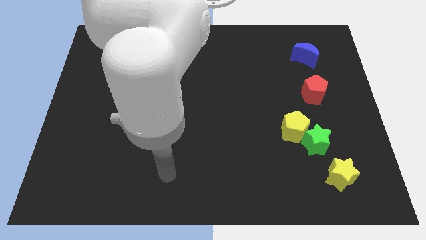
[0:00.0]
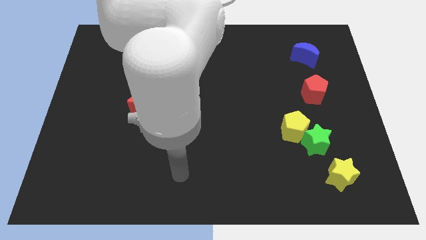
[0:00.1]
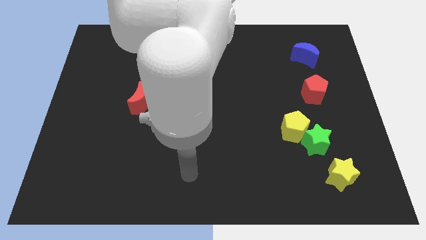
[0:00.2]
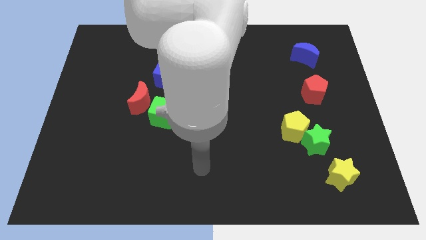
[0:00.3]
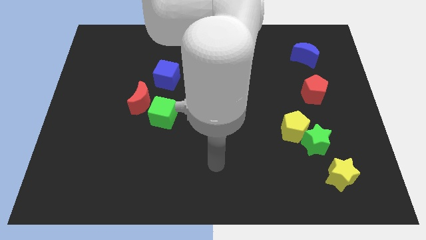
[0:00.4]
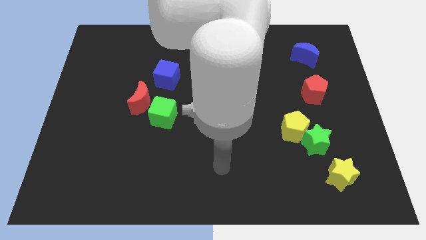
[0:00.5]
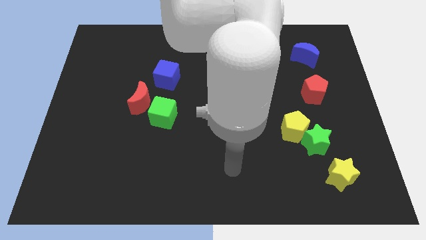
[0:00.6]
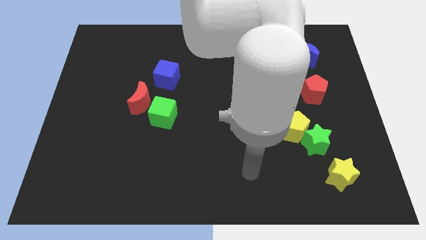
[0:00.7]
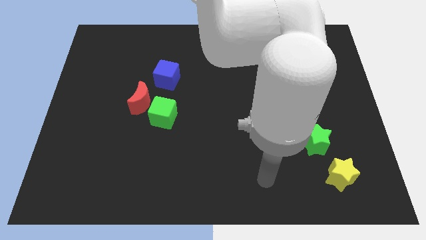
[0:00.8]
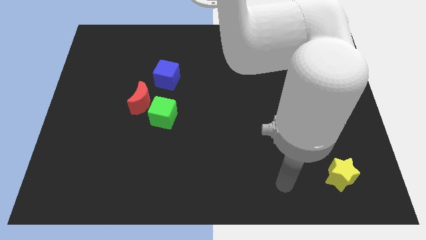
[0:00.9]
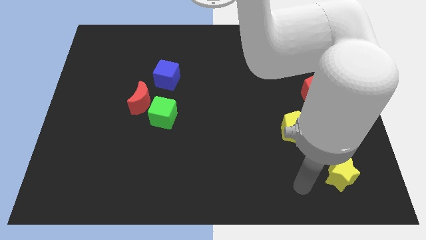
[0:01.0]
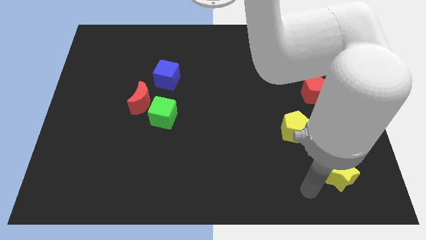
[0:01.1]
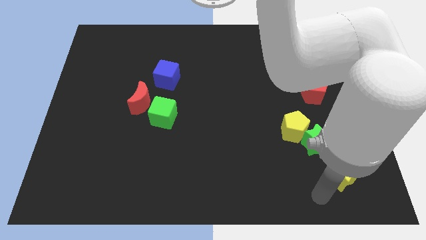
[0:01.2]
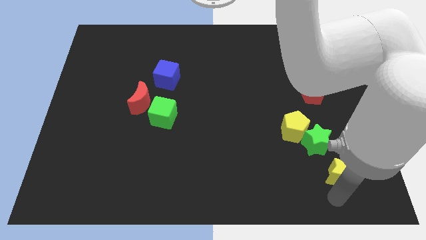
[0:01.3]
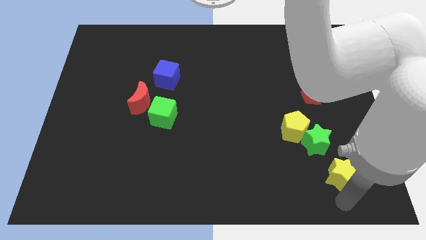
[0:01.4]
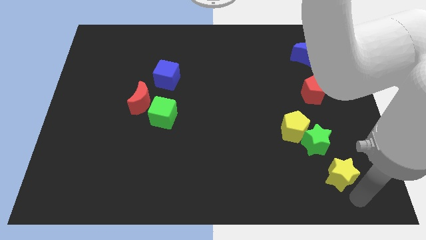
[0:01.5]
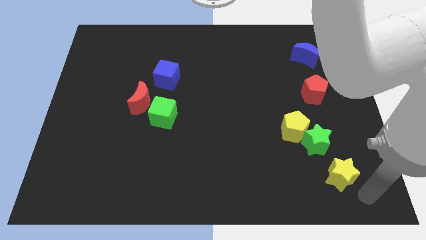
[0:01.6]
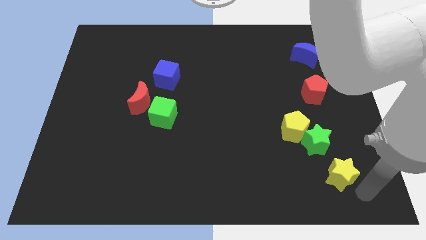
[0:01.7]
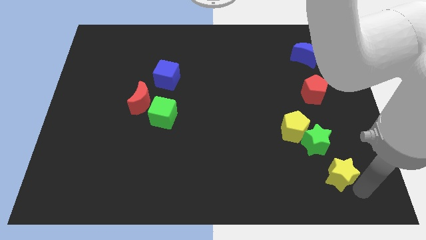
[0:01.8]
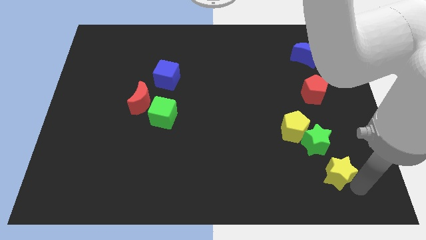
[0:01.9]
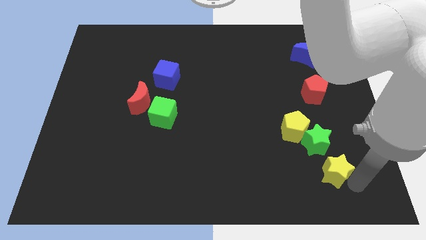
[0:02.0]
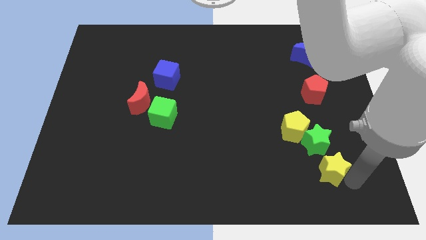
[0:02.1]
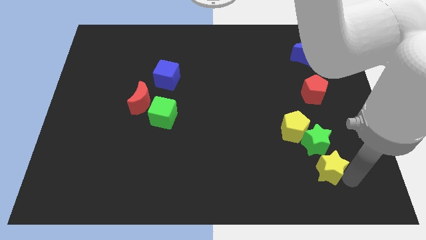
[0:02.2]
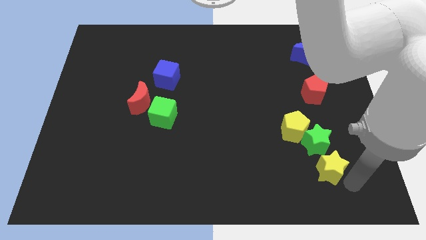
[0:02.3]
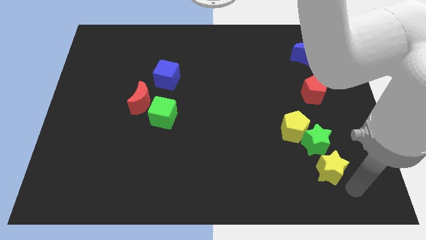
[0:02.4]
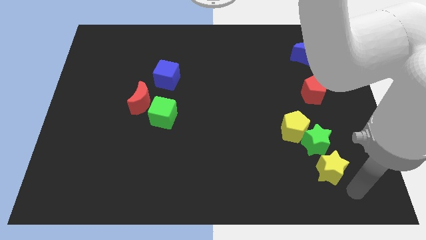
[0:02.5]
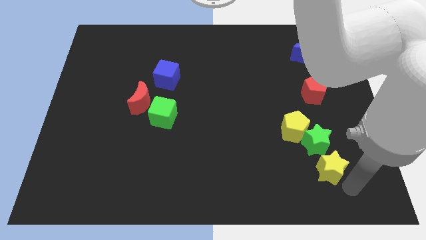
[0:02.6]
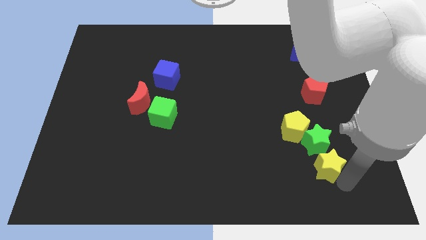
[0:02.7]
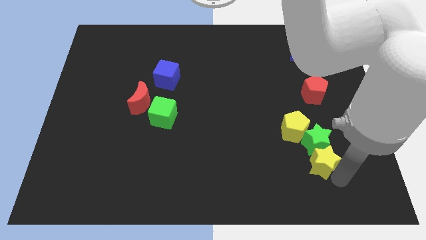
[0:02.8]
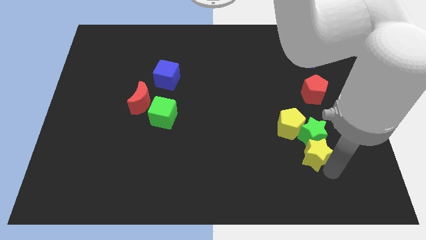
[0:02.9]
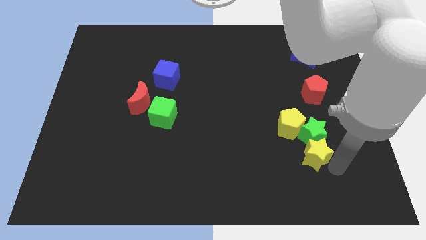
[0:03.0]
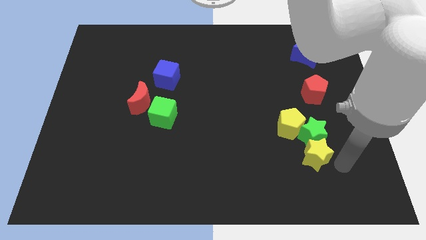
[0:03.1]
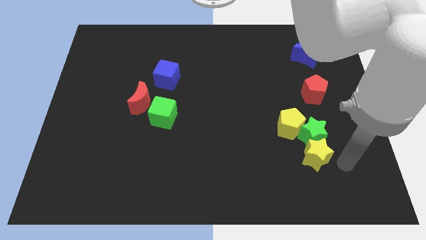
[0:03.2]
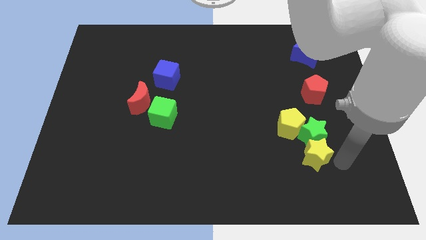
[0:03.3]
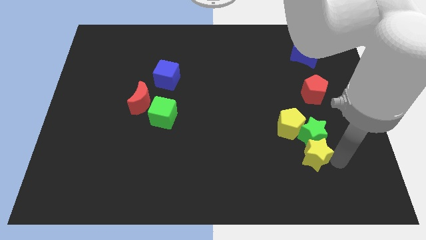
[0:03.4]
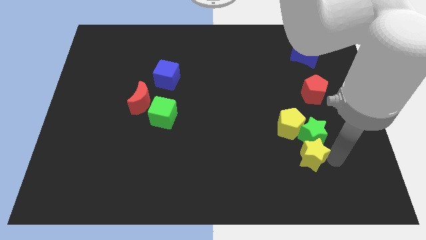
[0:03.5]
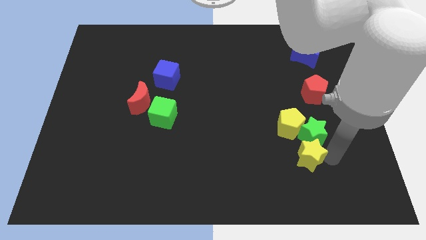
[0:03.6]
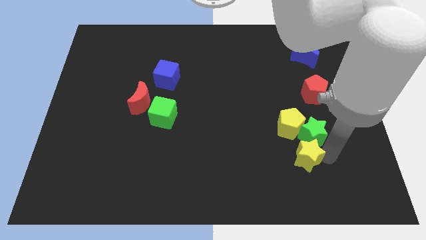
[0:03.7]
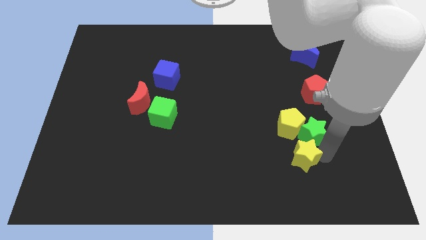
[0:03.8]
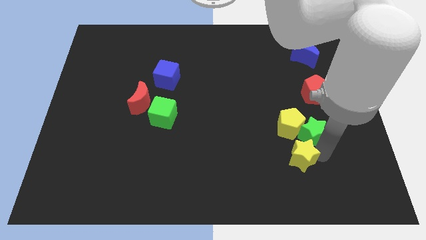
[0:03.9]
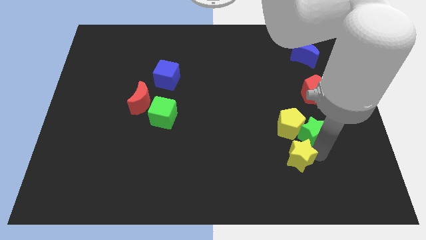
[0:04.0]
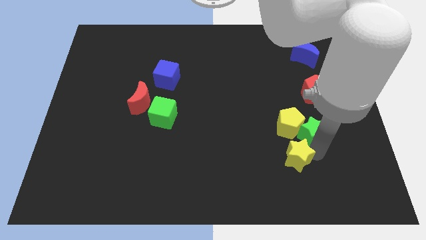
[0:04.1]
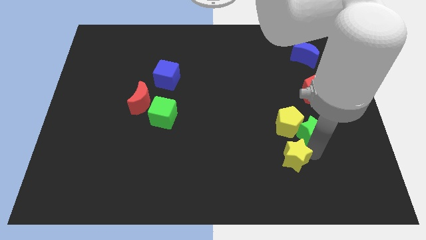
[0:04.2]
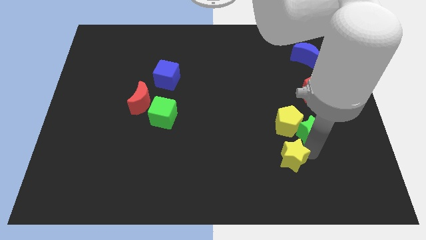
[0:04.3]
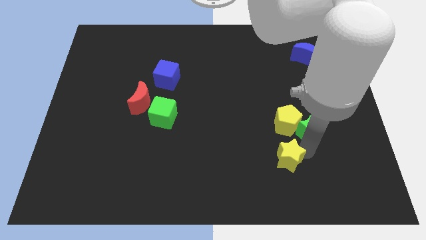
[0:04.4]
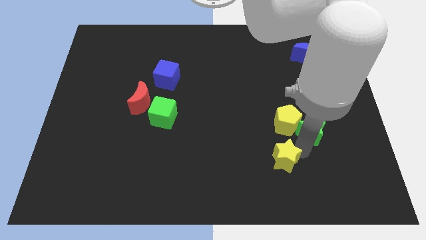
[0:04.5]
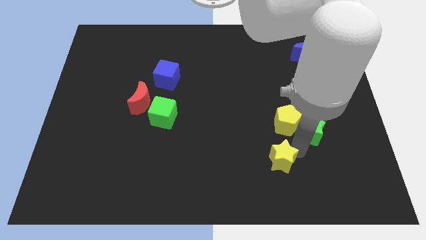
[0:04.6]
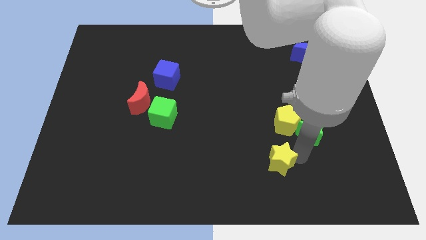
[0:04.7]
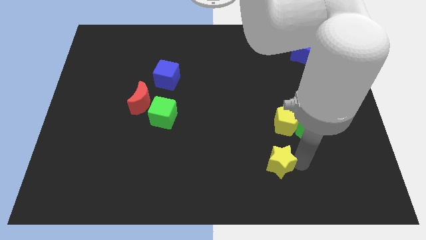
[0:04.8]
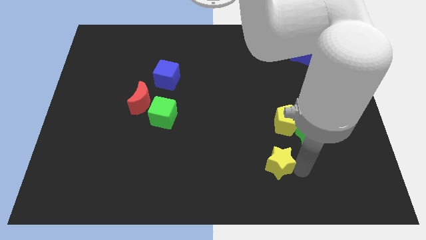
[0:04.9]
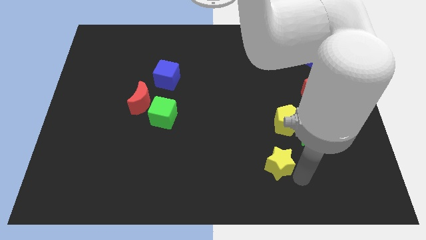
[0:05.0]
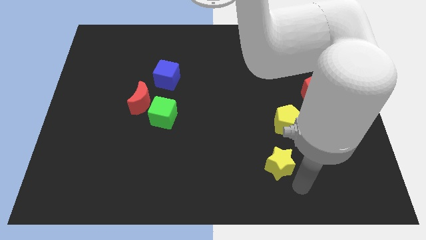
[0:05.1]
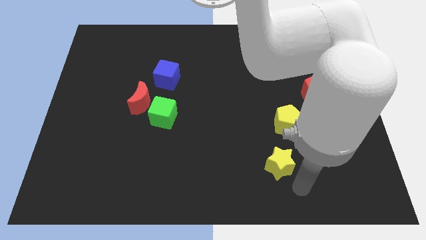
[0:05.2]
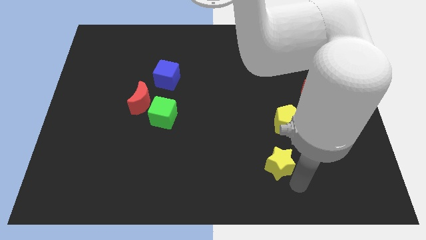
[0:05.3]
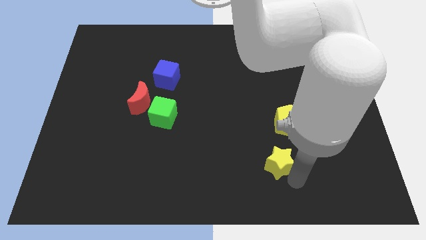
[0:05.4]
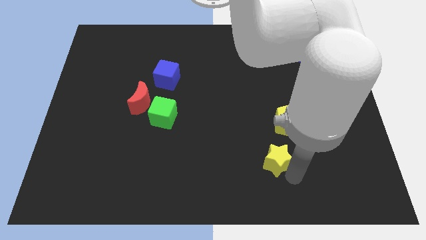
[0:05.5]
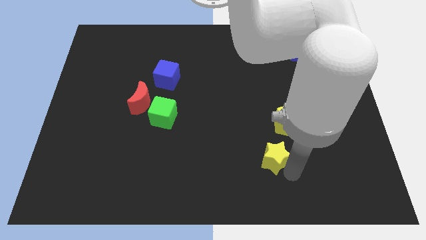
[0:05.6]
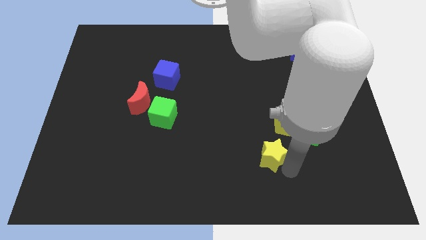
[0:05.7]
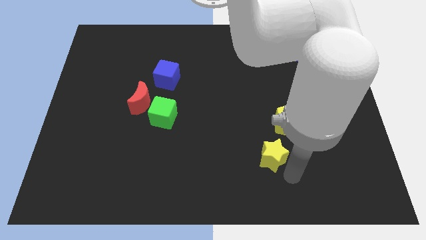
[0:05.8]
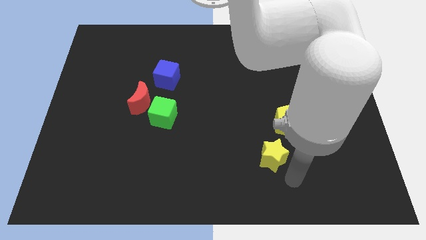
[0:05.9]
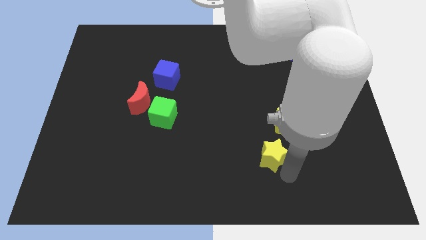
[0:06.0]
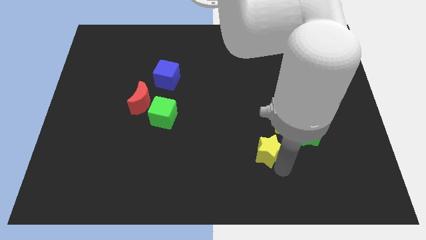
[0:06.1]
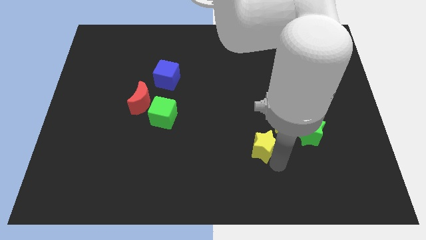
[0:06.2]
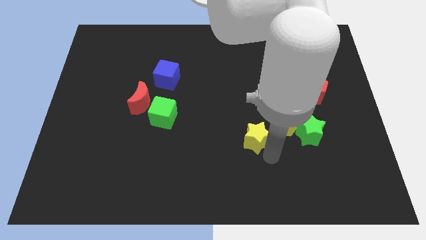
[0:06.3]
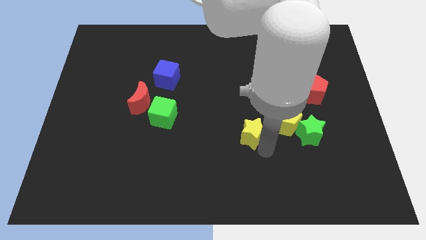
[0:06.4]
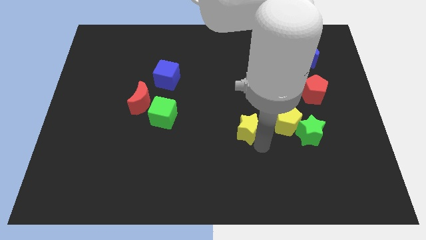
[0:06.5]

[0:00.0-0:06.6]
put the yellow star to the middle of the board
